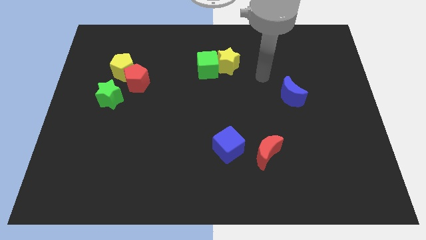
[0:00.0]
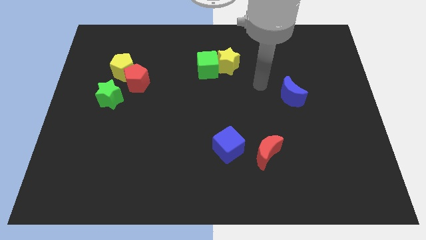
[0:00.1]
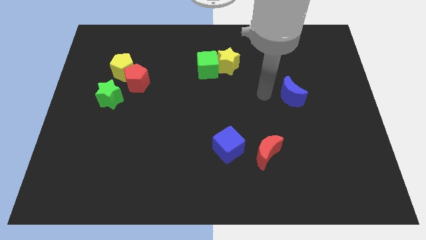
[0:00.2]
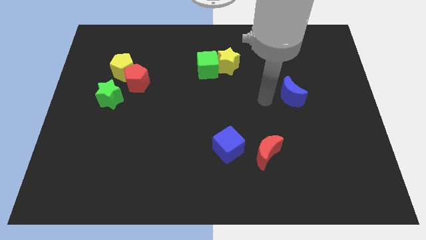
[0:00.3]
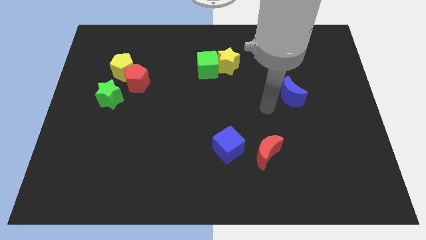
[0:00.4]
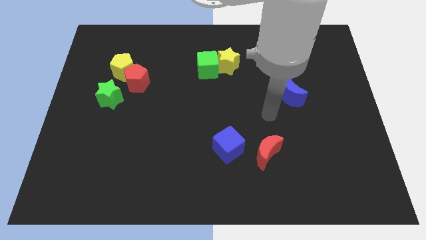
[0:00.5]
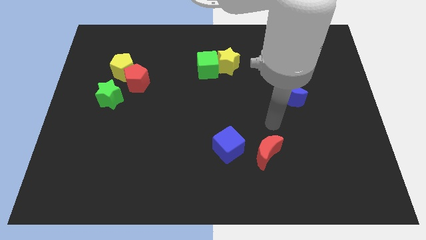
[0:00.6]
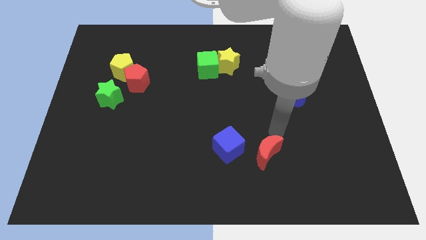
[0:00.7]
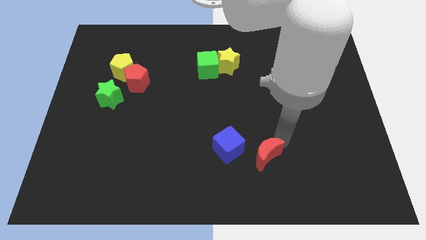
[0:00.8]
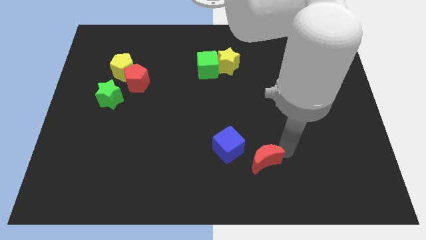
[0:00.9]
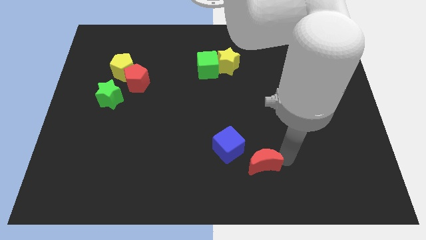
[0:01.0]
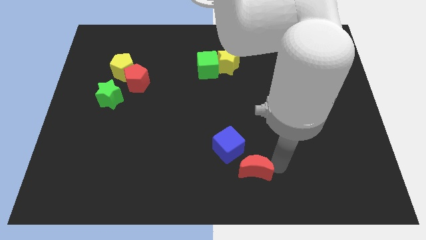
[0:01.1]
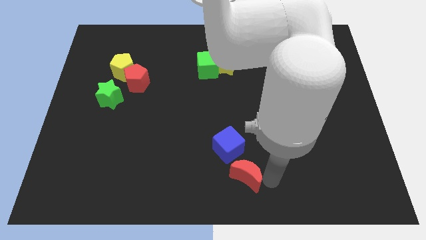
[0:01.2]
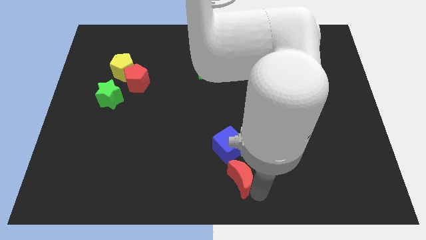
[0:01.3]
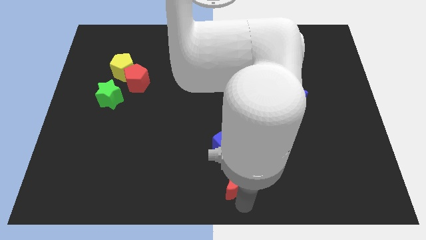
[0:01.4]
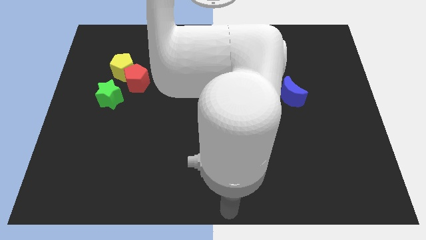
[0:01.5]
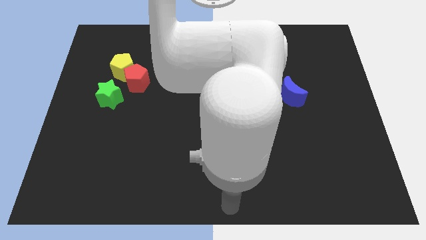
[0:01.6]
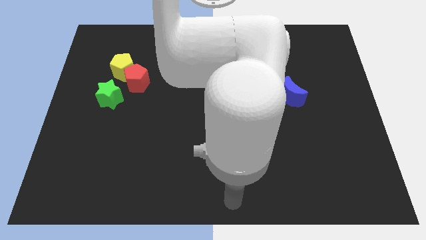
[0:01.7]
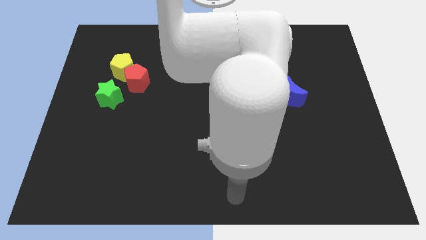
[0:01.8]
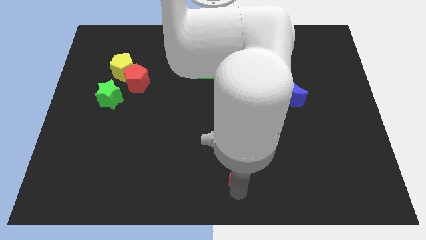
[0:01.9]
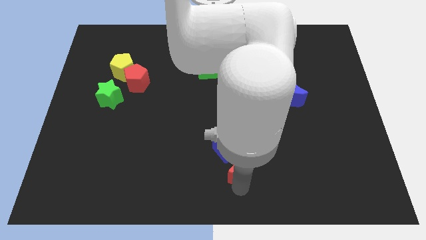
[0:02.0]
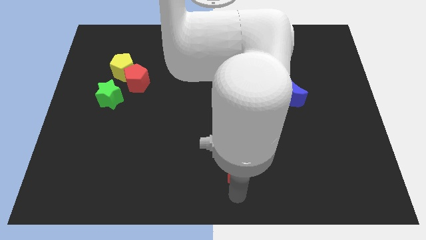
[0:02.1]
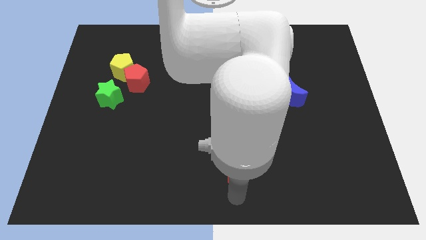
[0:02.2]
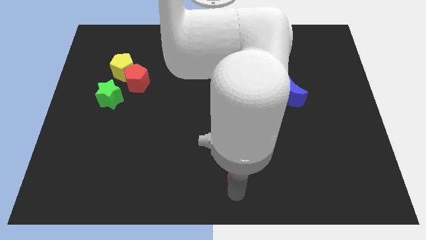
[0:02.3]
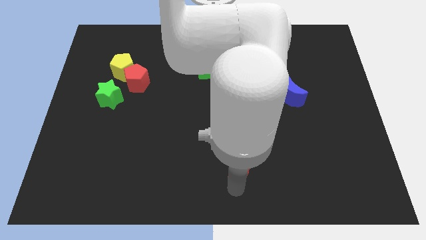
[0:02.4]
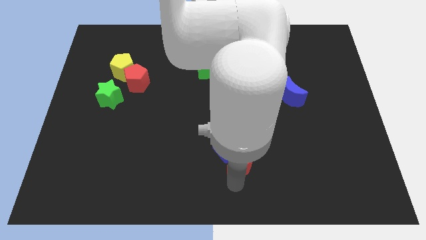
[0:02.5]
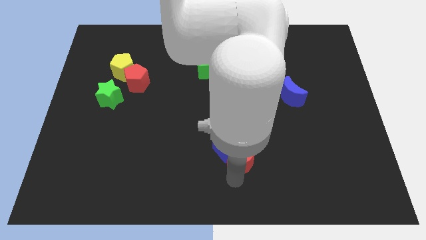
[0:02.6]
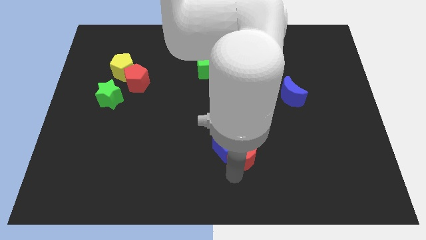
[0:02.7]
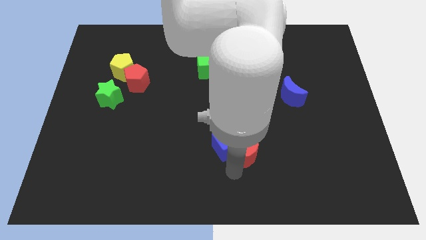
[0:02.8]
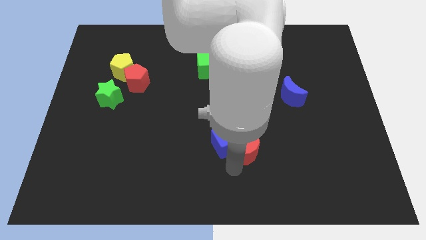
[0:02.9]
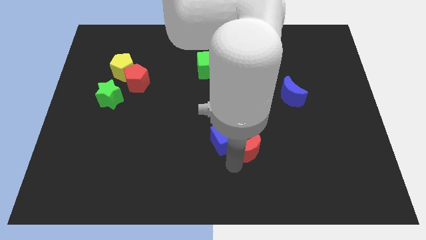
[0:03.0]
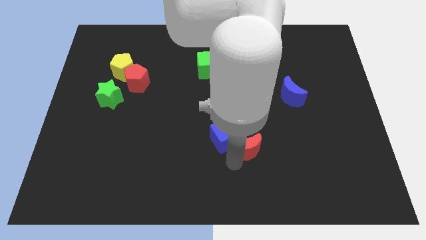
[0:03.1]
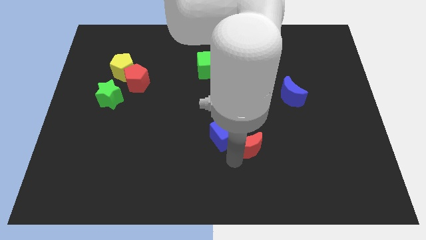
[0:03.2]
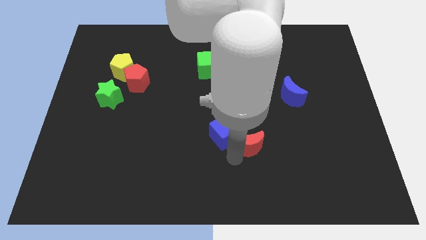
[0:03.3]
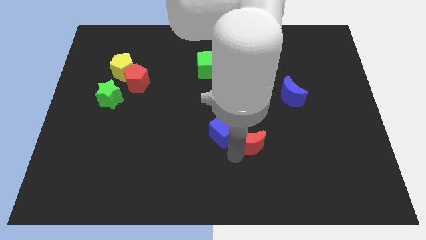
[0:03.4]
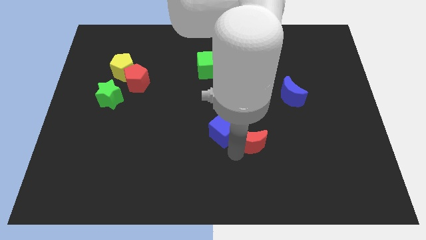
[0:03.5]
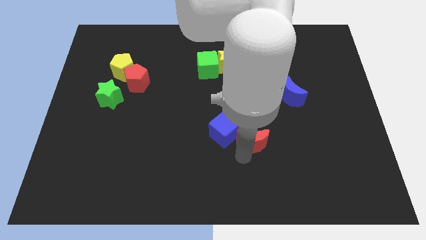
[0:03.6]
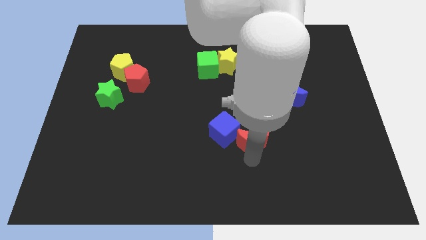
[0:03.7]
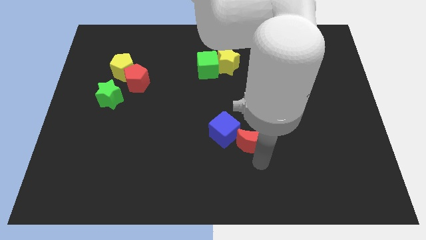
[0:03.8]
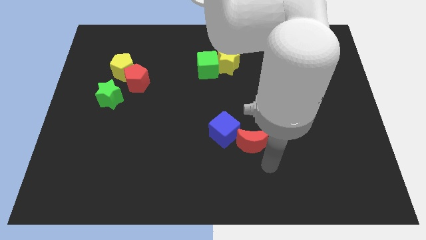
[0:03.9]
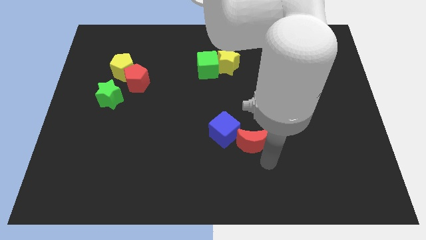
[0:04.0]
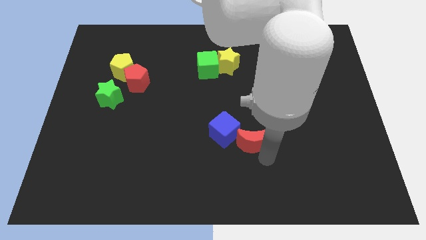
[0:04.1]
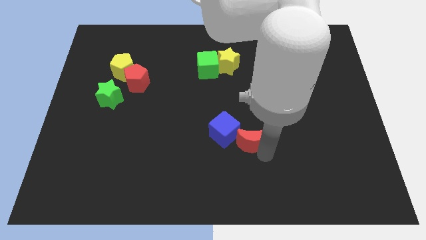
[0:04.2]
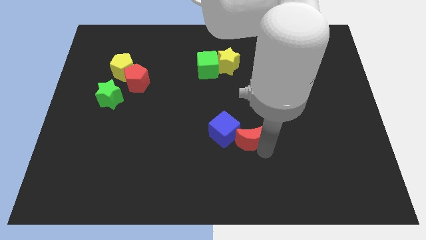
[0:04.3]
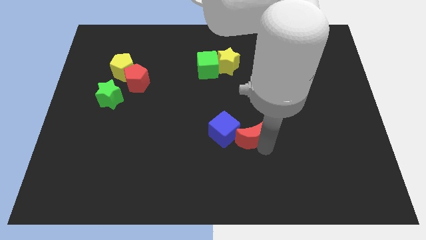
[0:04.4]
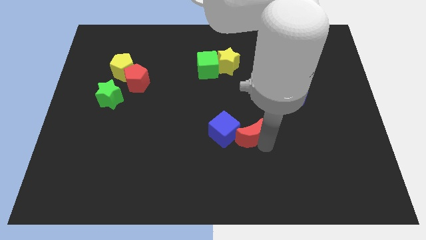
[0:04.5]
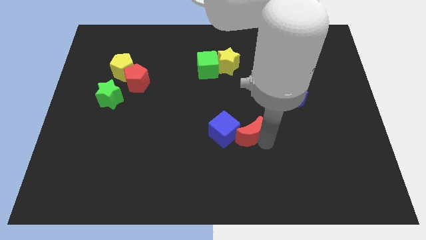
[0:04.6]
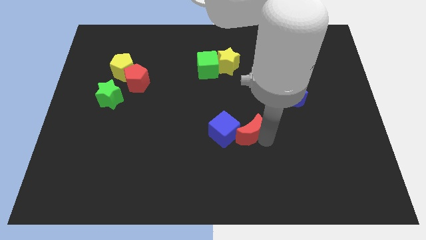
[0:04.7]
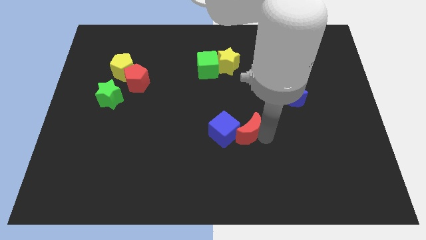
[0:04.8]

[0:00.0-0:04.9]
move the red moon to the middle
